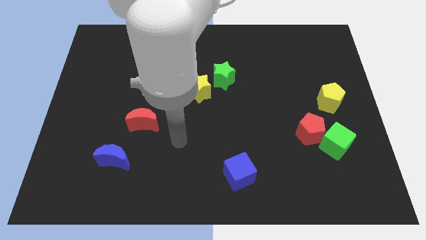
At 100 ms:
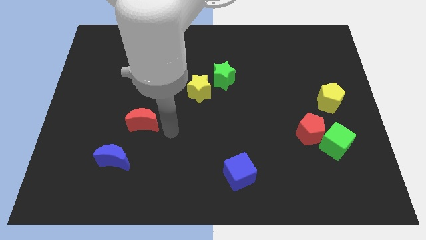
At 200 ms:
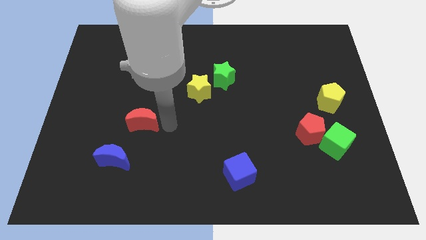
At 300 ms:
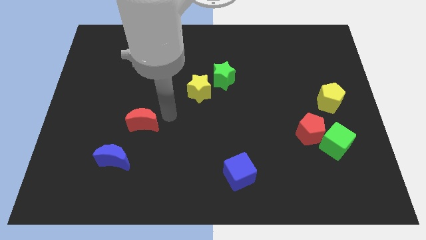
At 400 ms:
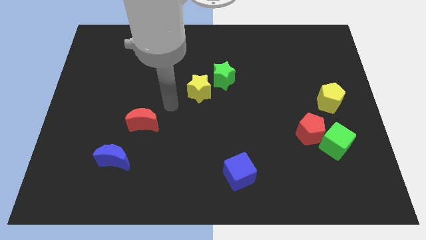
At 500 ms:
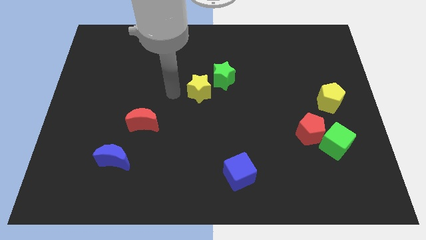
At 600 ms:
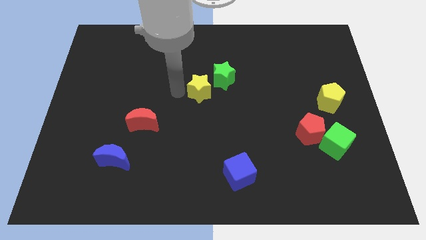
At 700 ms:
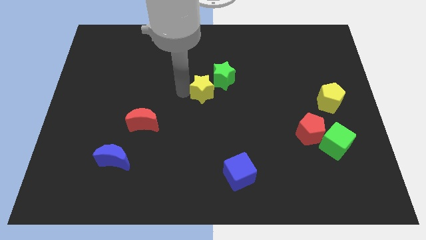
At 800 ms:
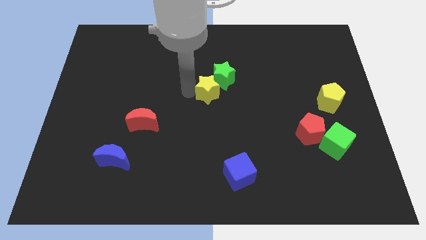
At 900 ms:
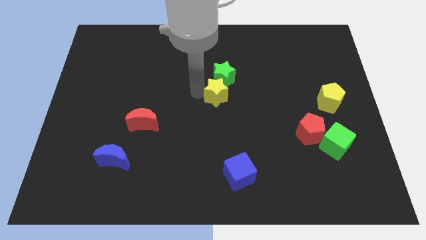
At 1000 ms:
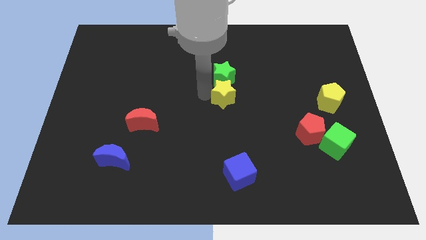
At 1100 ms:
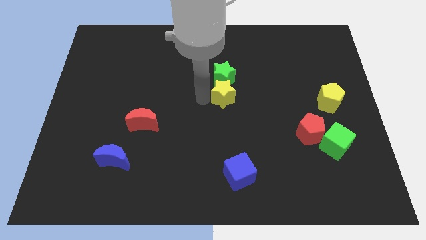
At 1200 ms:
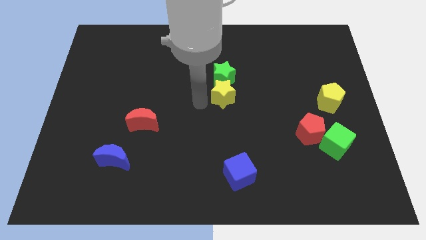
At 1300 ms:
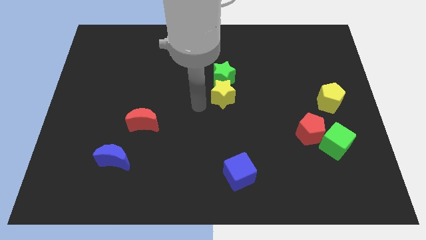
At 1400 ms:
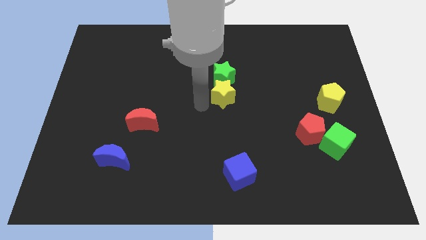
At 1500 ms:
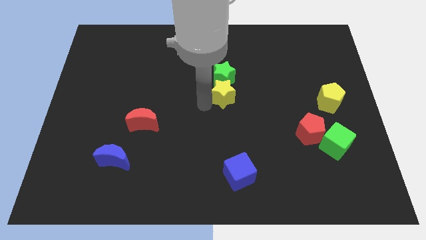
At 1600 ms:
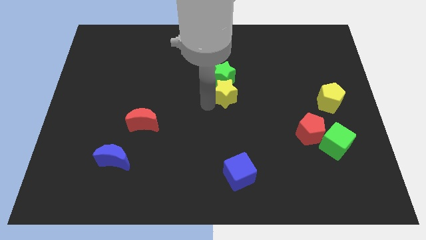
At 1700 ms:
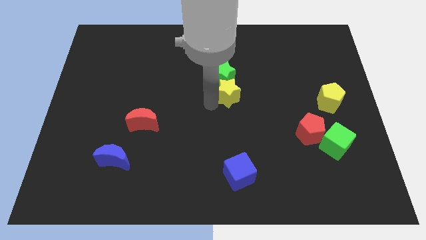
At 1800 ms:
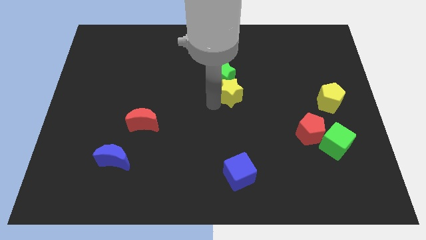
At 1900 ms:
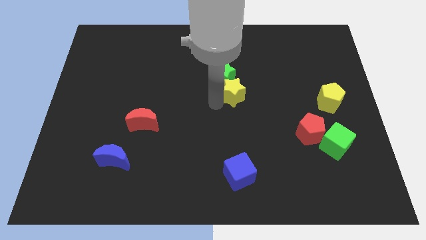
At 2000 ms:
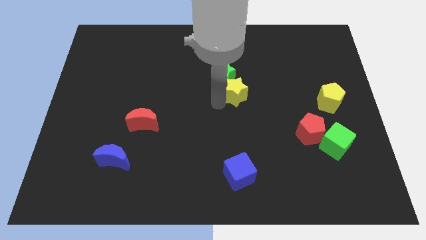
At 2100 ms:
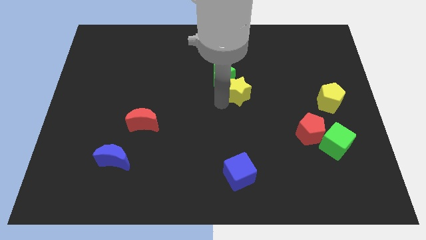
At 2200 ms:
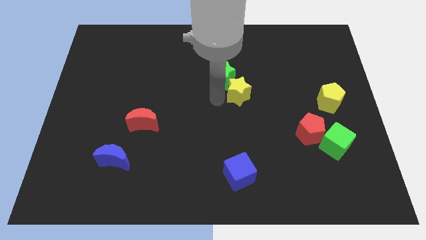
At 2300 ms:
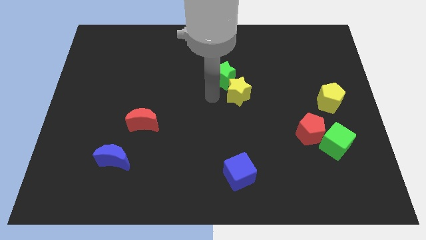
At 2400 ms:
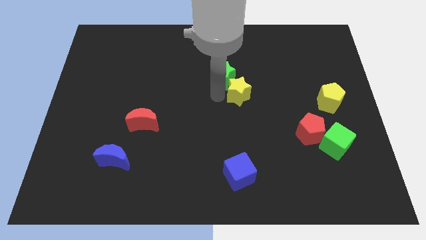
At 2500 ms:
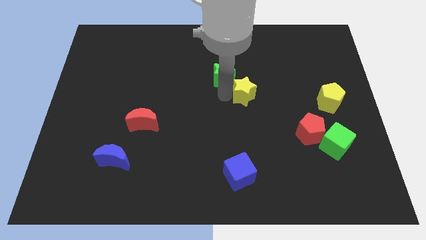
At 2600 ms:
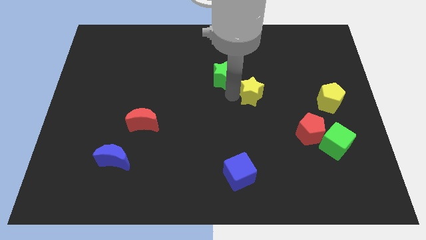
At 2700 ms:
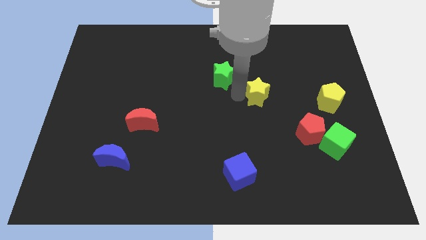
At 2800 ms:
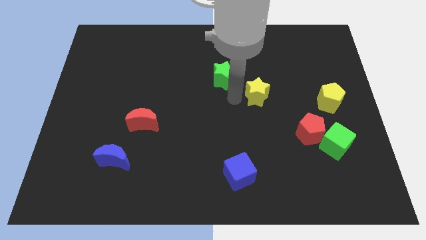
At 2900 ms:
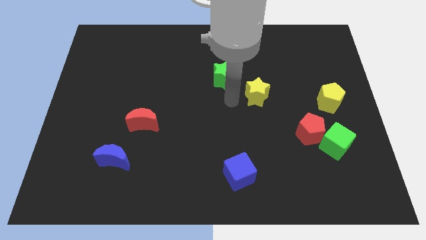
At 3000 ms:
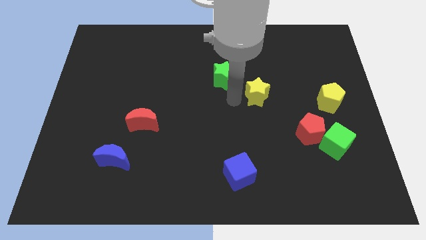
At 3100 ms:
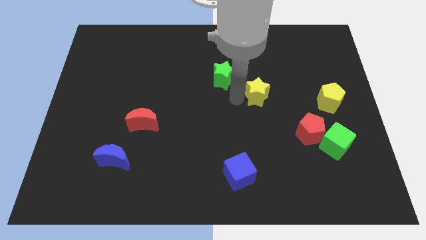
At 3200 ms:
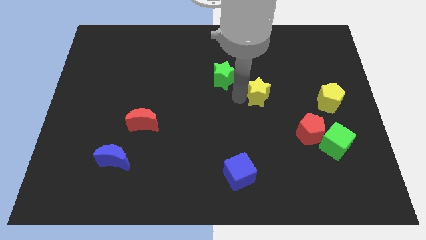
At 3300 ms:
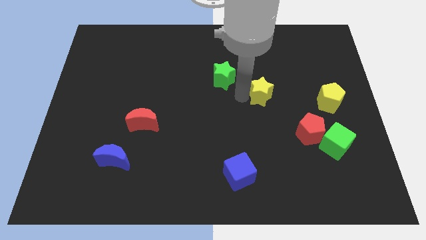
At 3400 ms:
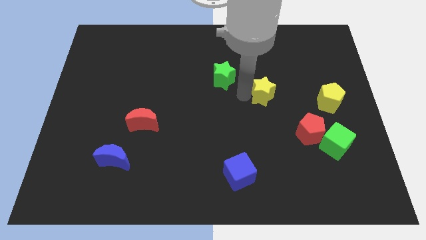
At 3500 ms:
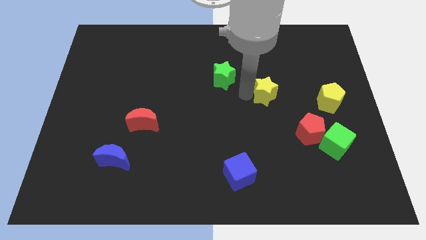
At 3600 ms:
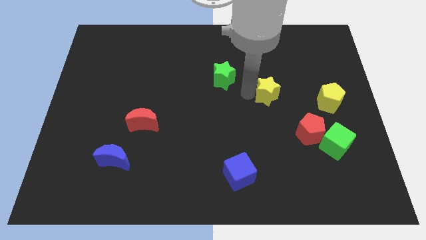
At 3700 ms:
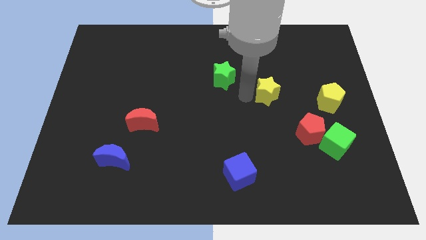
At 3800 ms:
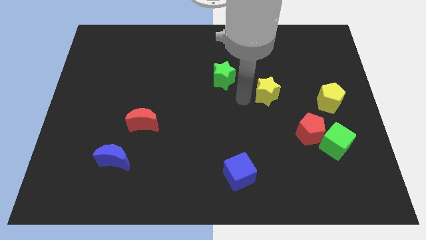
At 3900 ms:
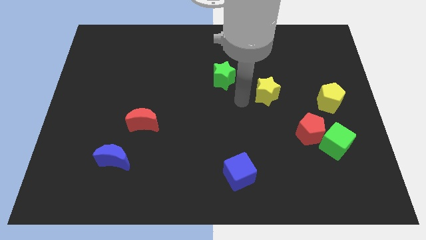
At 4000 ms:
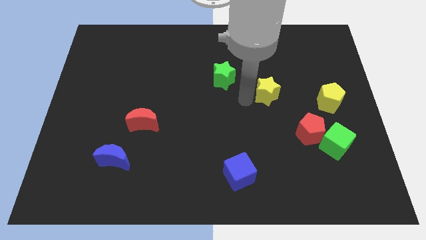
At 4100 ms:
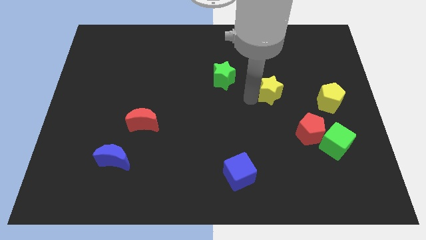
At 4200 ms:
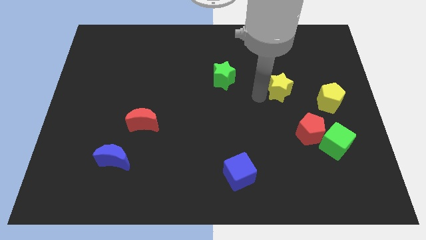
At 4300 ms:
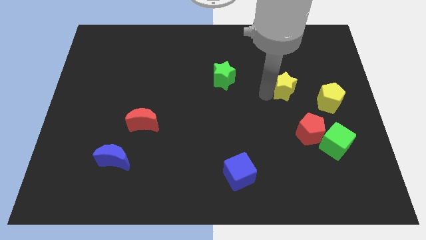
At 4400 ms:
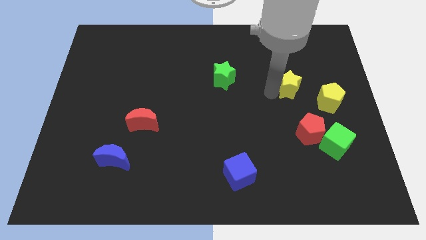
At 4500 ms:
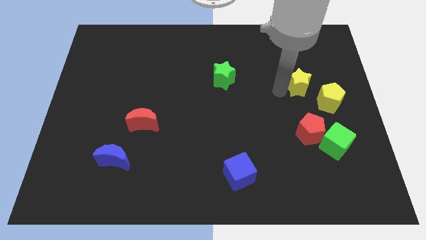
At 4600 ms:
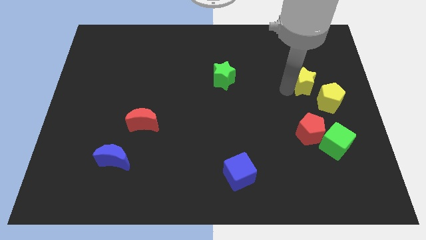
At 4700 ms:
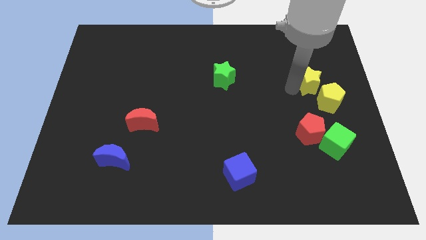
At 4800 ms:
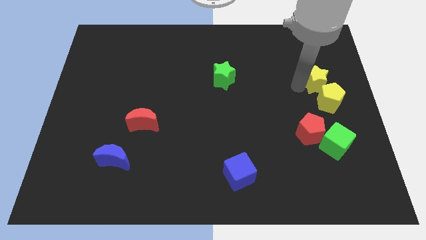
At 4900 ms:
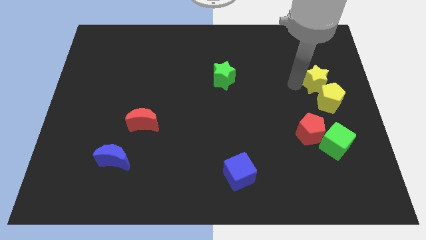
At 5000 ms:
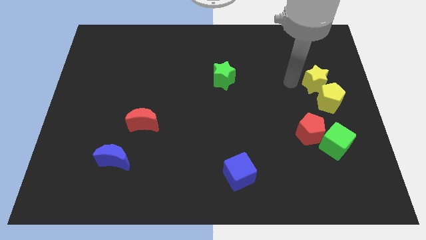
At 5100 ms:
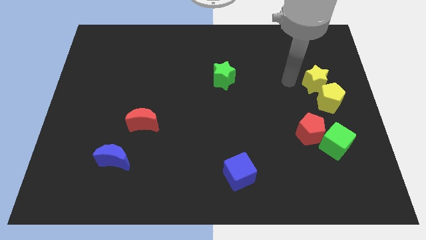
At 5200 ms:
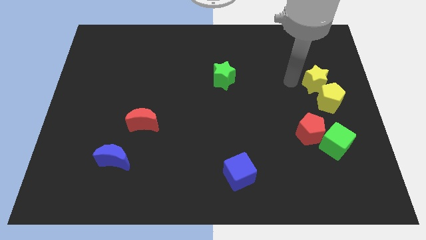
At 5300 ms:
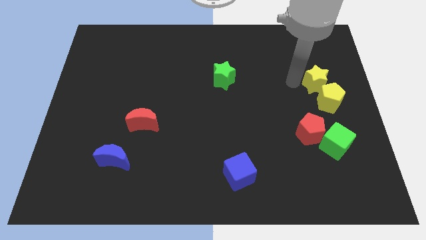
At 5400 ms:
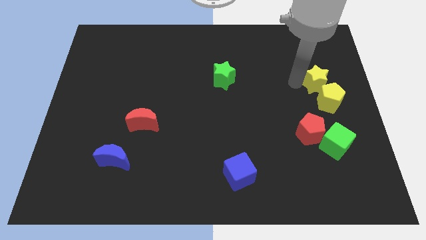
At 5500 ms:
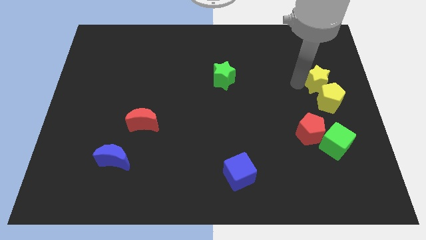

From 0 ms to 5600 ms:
move the yellow star to the right side of the board
